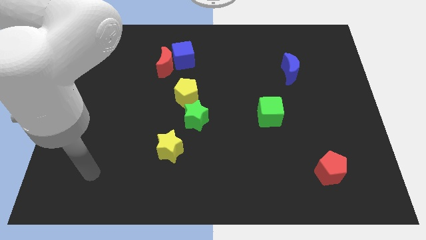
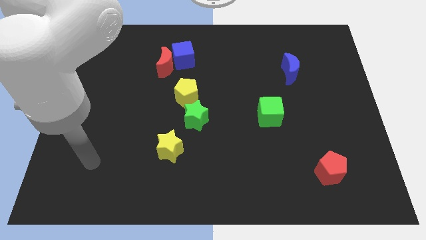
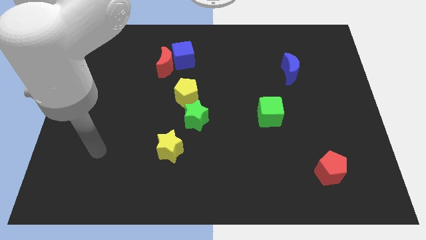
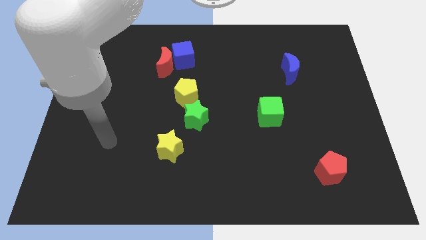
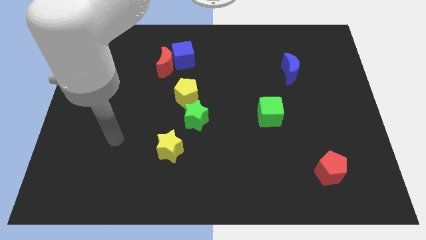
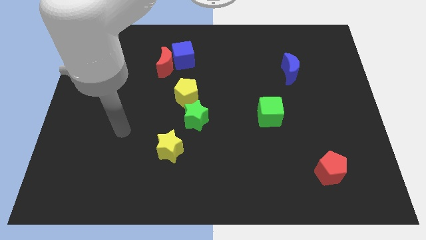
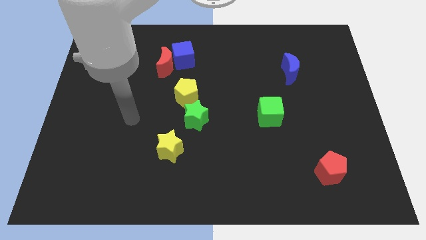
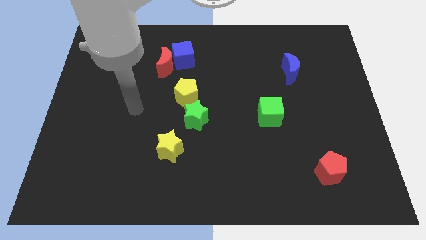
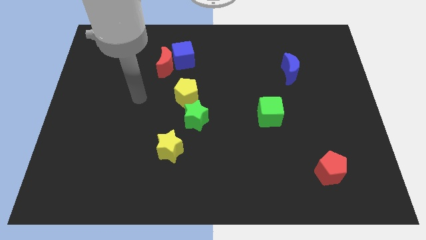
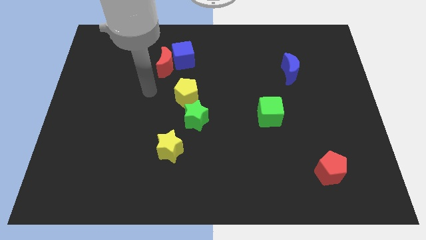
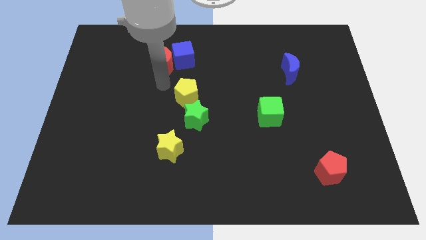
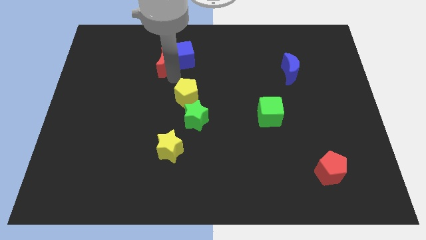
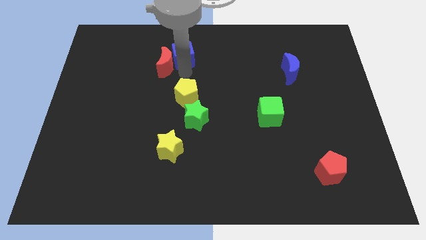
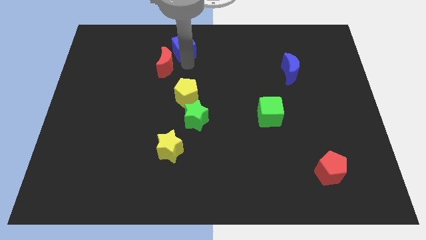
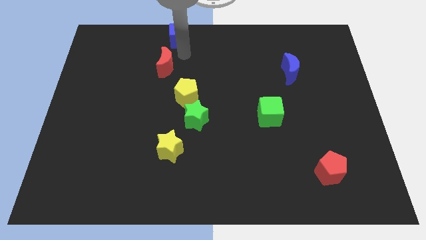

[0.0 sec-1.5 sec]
move the red moon away from the blue cube

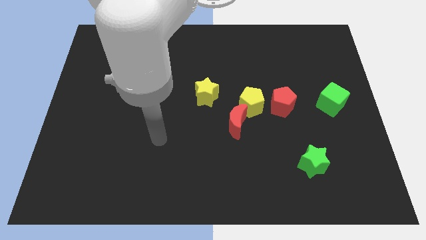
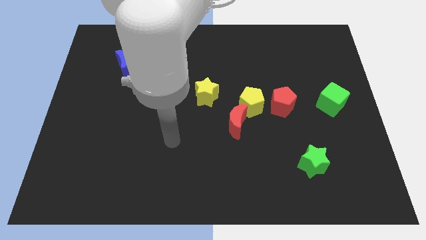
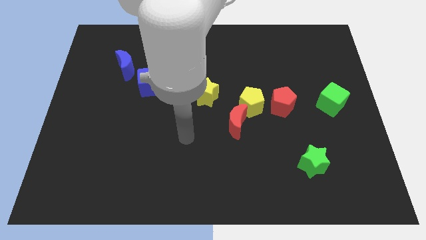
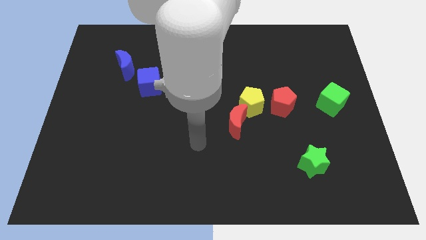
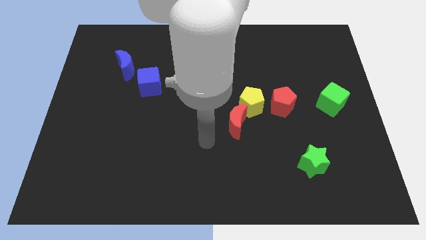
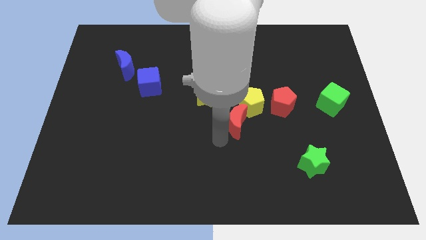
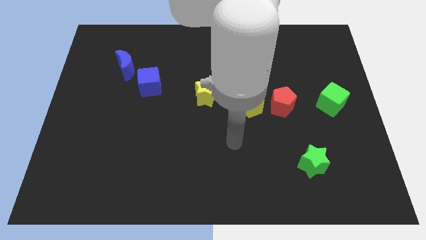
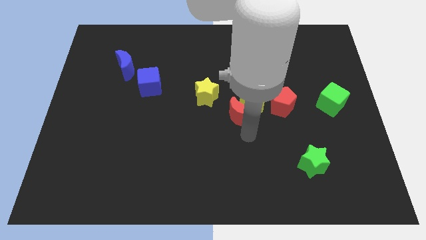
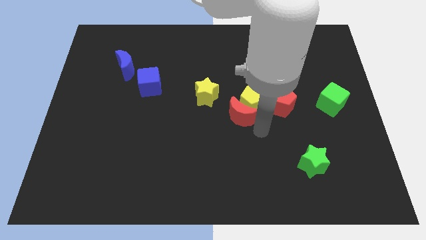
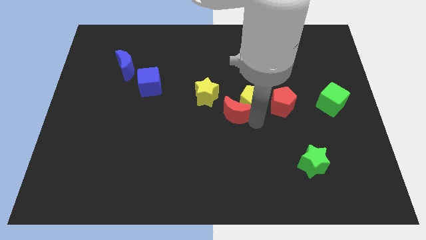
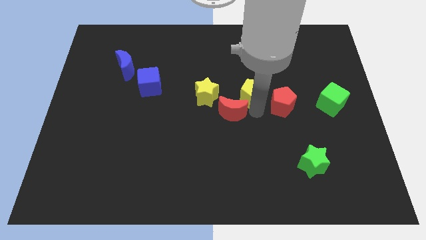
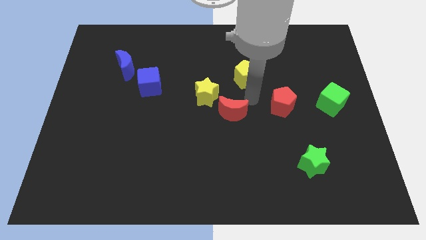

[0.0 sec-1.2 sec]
separate the red moon from the yellow pentagon

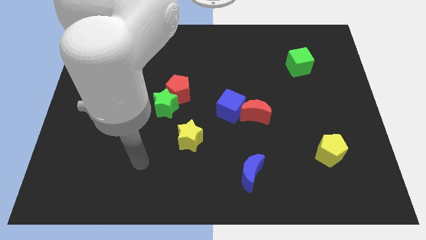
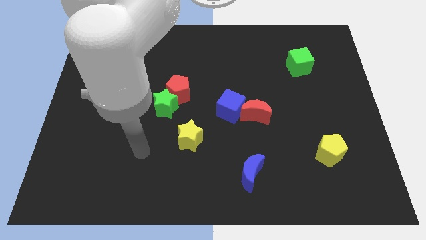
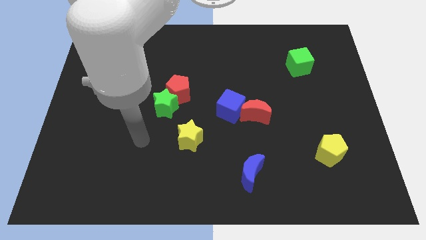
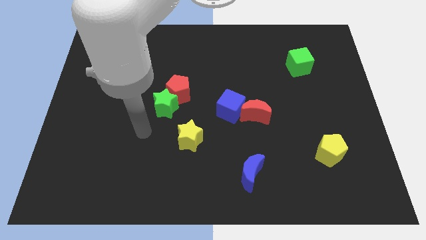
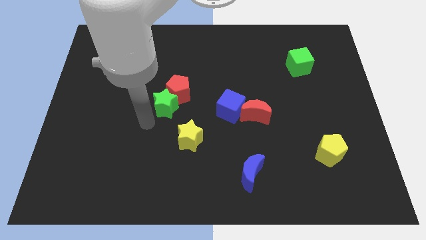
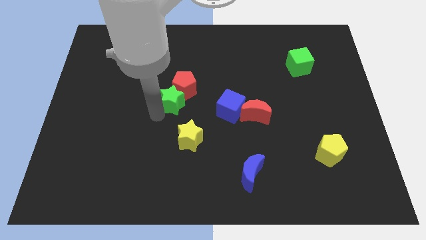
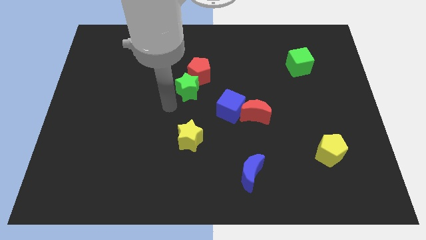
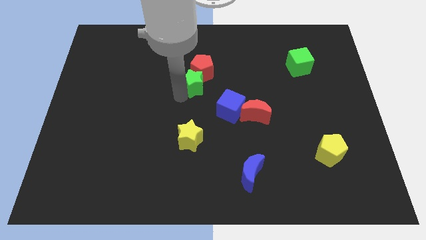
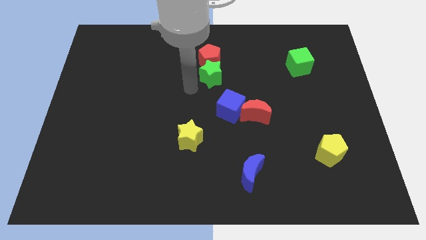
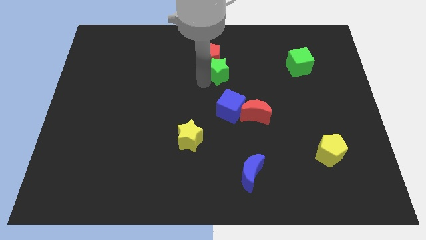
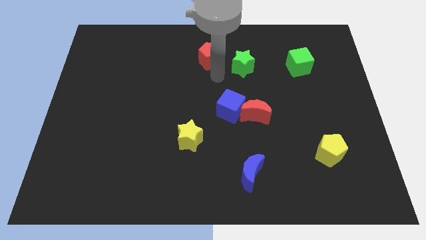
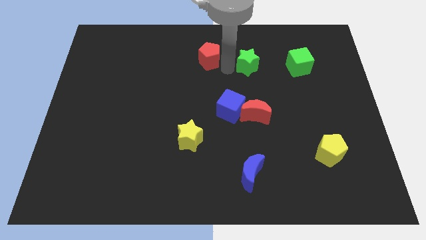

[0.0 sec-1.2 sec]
move the red pentagon away from the green star

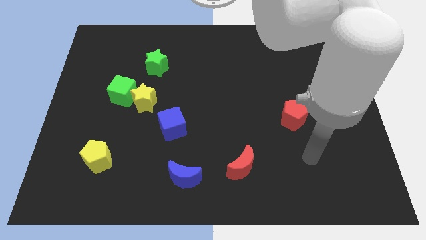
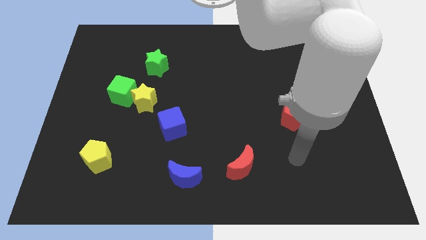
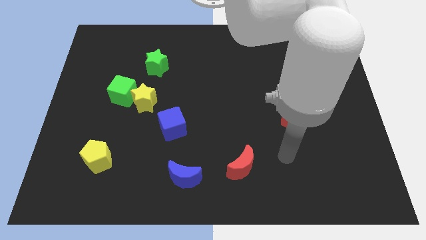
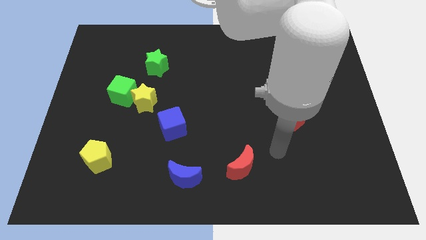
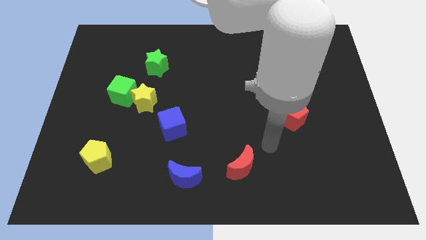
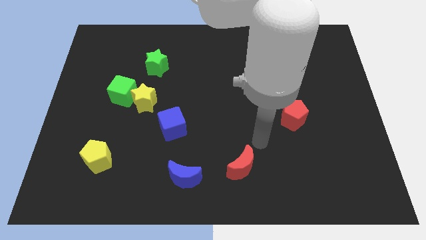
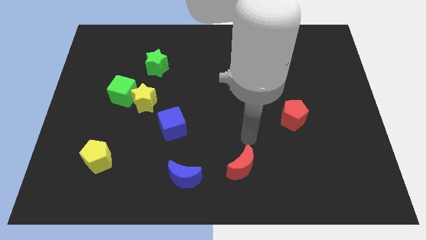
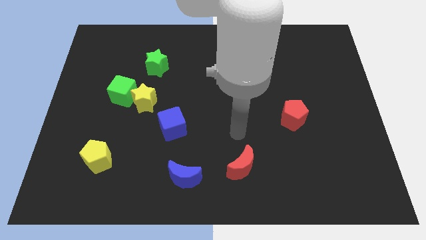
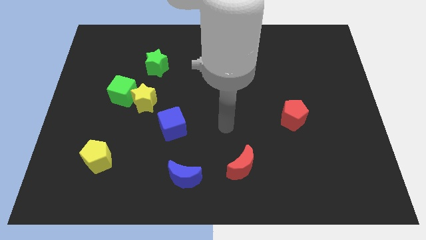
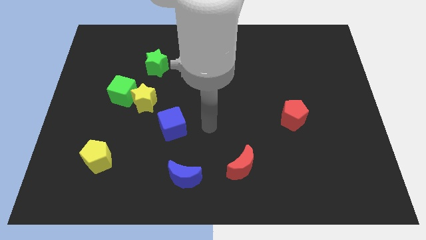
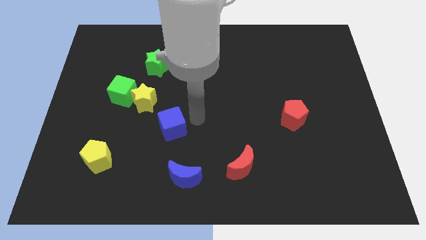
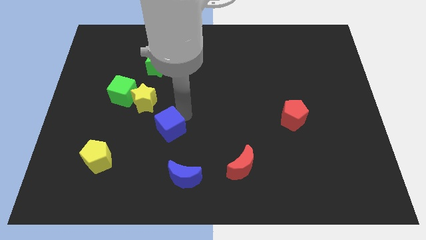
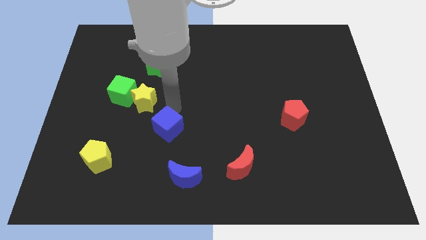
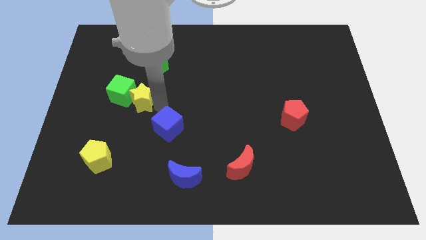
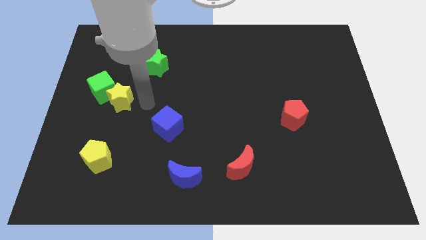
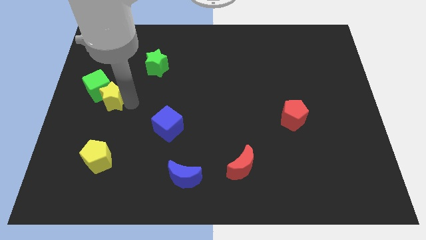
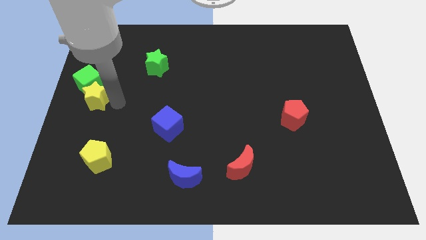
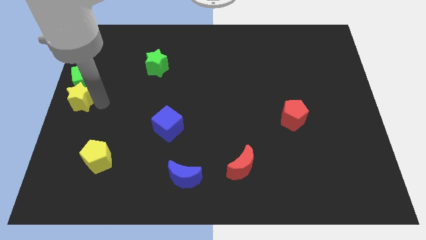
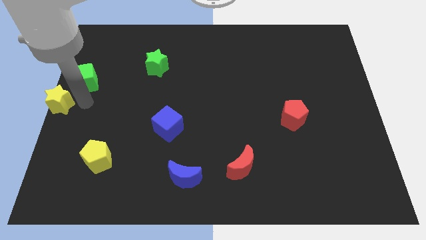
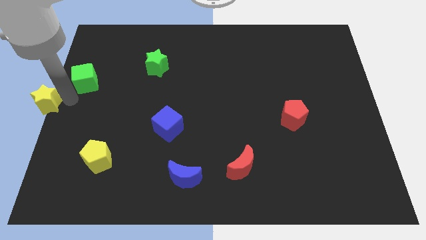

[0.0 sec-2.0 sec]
move the green cube away from the yellow star

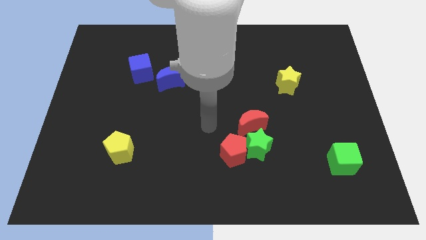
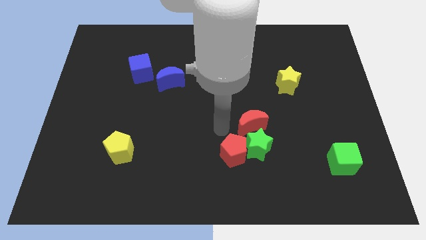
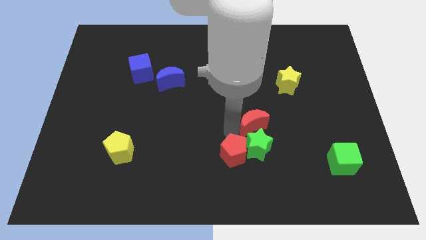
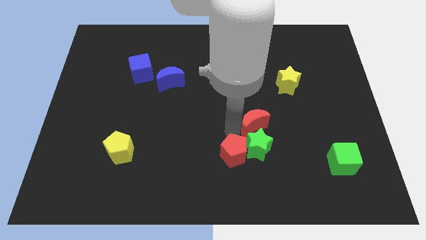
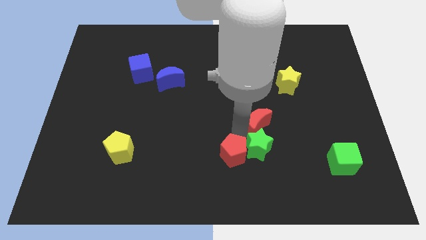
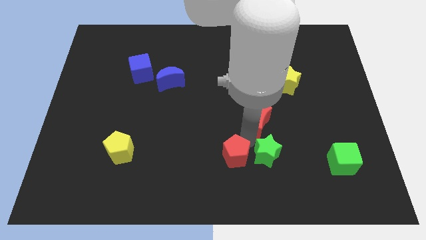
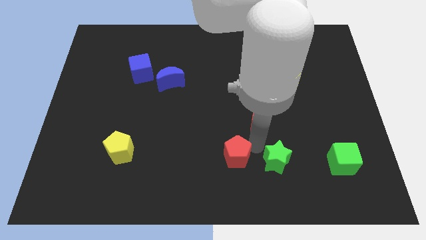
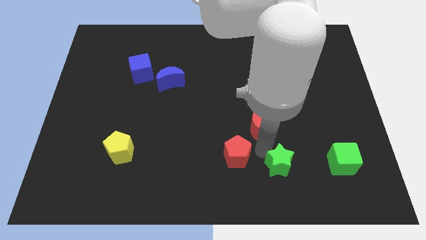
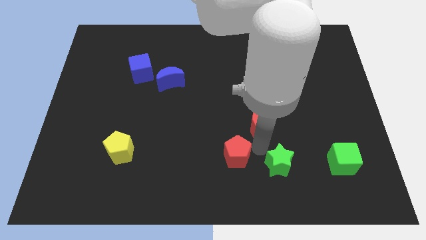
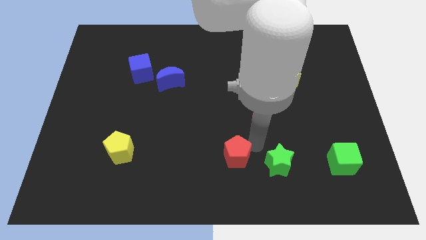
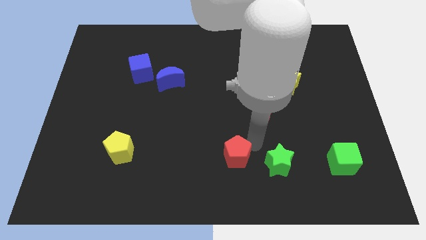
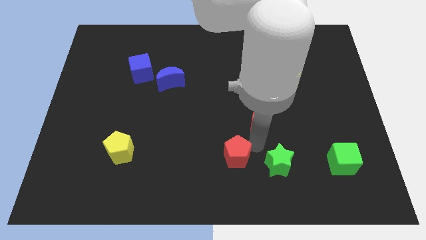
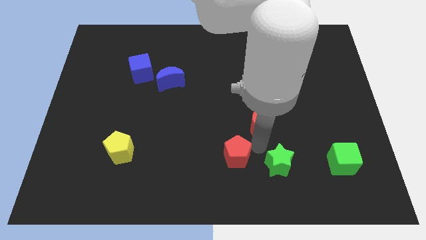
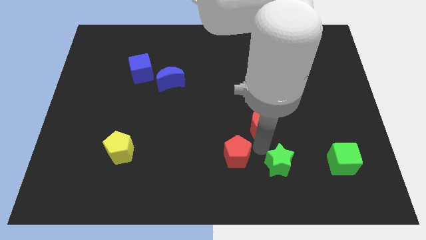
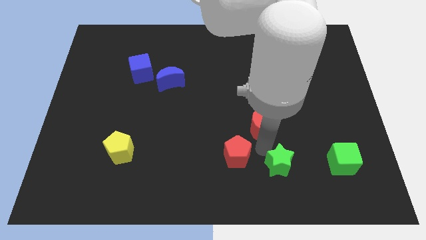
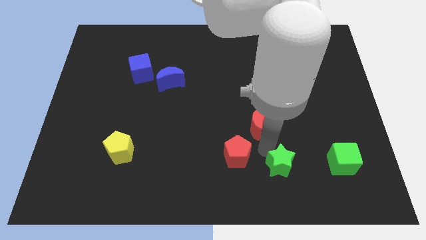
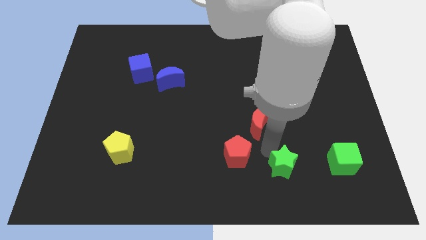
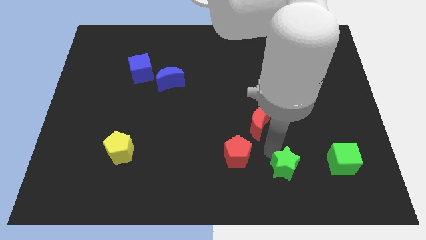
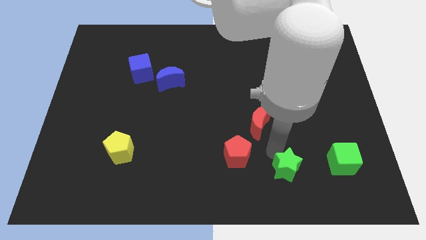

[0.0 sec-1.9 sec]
separate the green star from the red pentagon and red moon

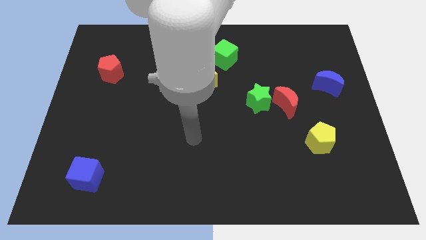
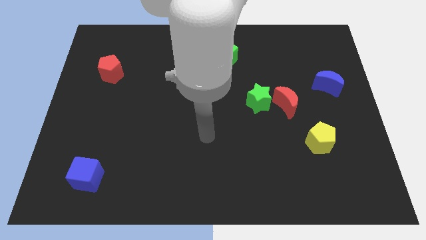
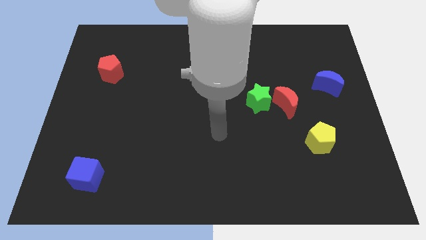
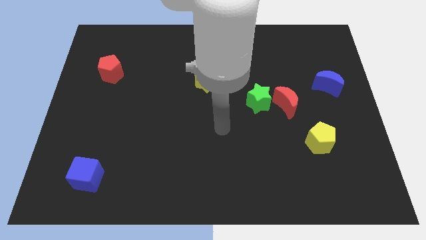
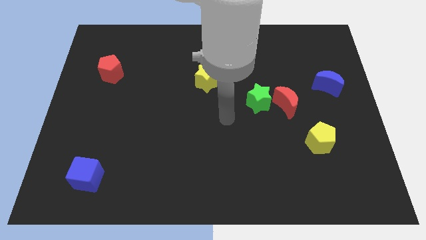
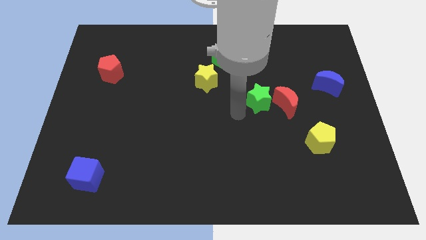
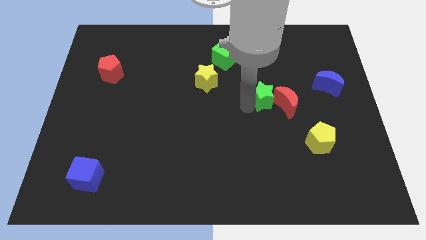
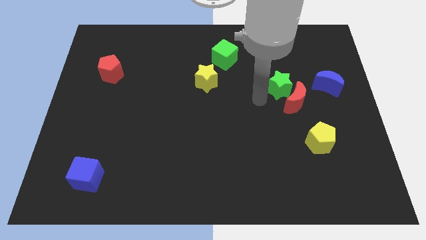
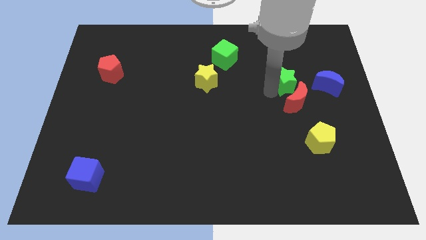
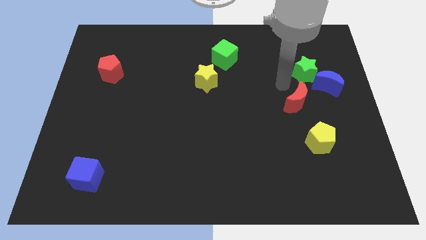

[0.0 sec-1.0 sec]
separate the red moon from the green star

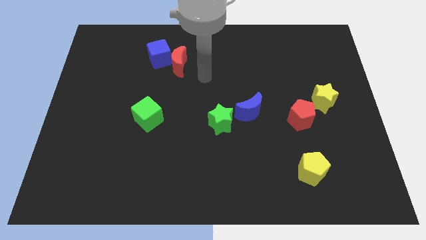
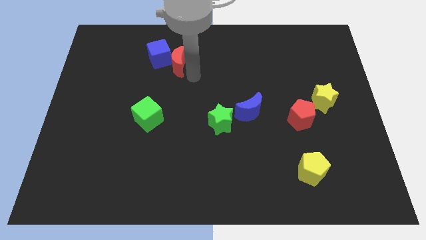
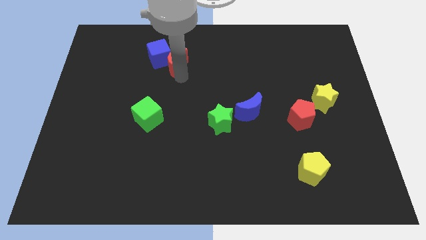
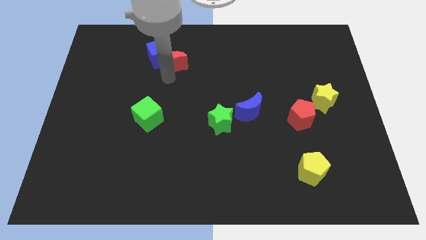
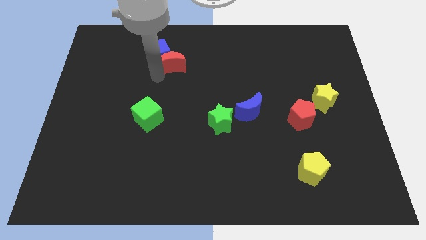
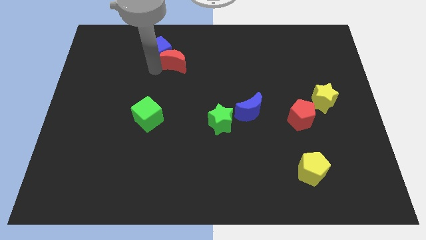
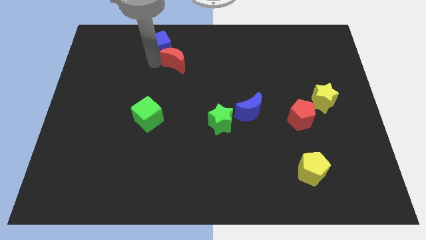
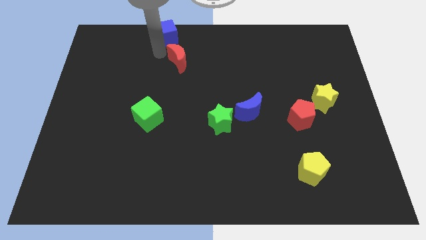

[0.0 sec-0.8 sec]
separate the red moon from the blue cube
